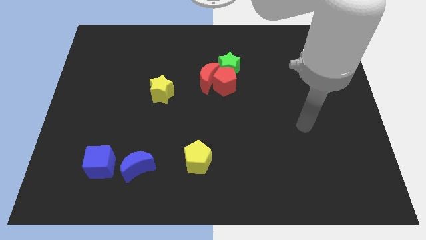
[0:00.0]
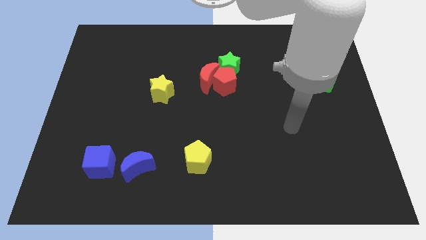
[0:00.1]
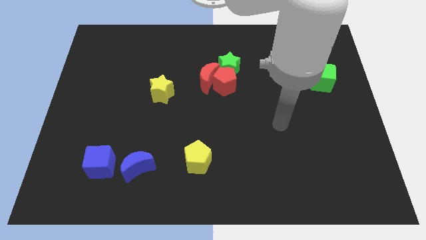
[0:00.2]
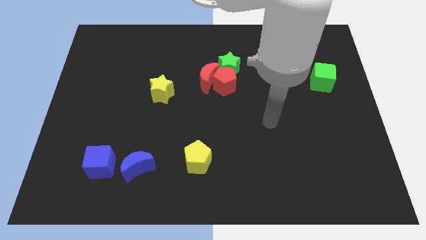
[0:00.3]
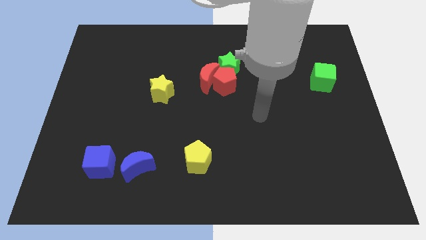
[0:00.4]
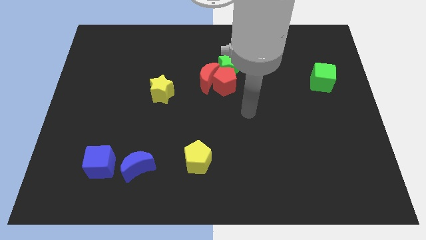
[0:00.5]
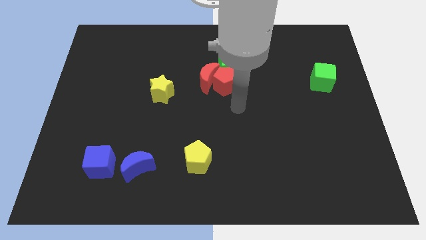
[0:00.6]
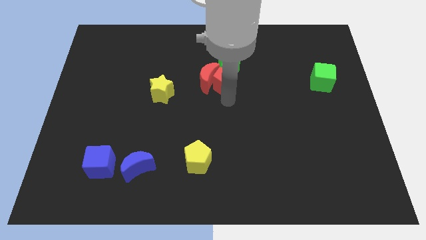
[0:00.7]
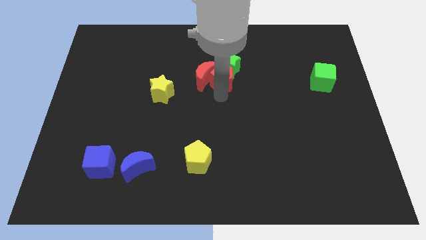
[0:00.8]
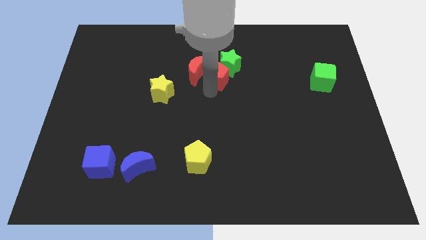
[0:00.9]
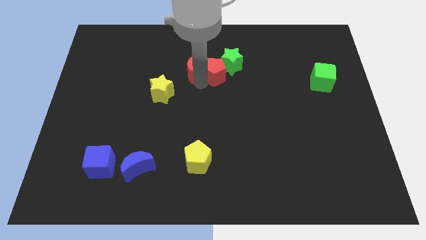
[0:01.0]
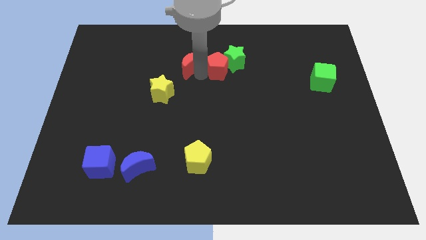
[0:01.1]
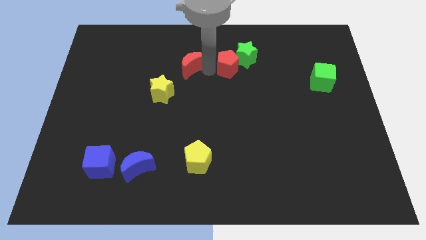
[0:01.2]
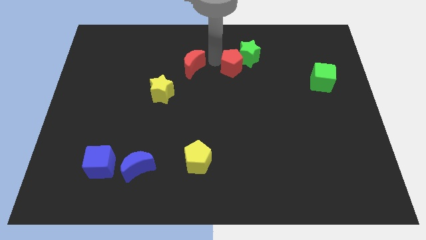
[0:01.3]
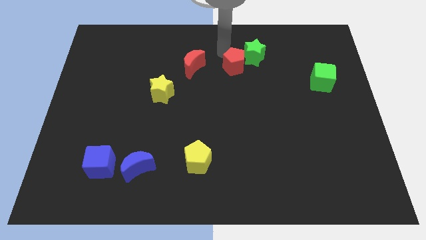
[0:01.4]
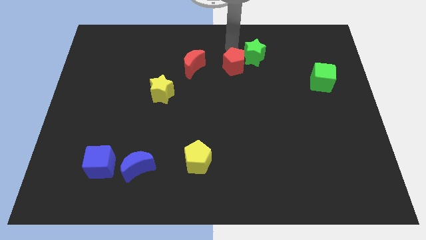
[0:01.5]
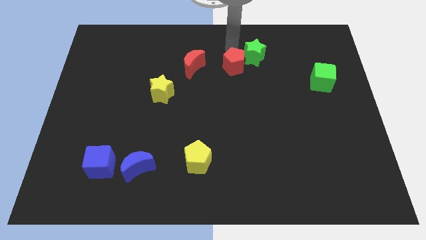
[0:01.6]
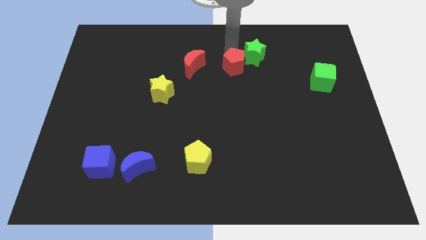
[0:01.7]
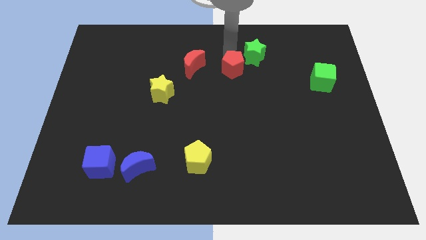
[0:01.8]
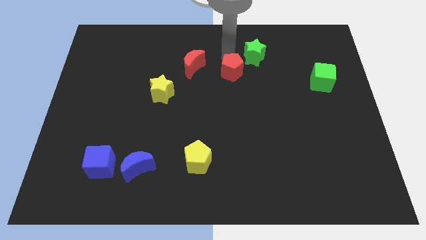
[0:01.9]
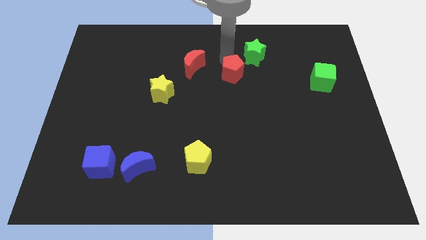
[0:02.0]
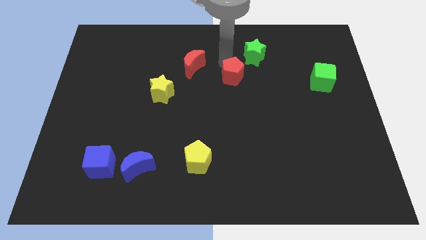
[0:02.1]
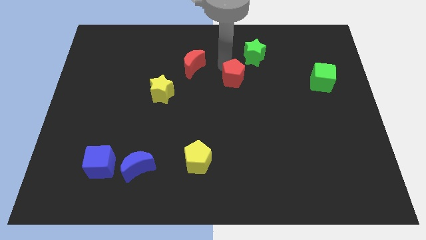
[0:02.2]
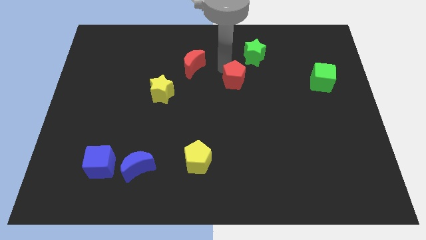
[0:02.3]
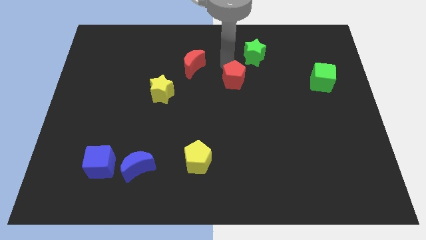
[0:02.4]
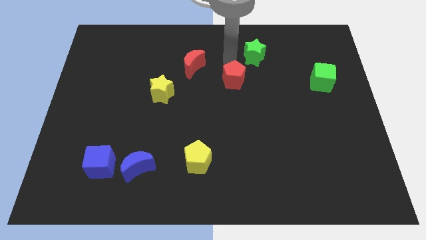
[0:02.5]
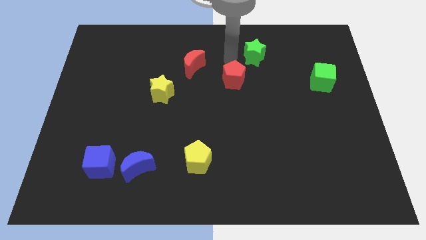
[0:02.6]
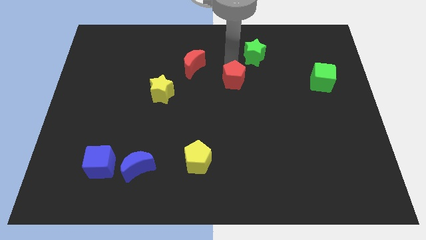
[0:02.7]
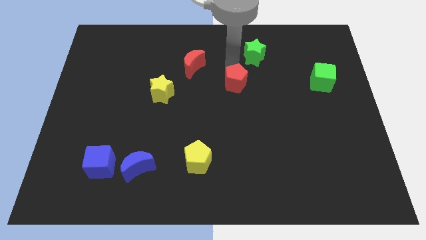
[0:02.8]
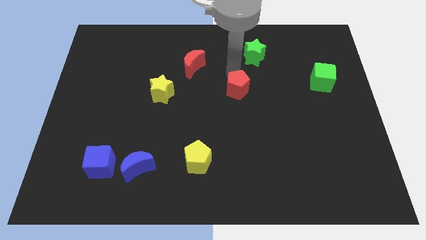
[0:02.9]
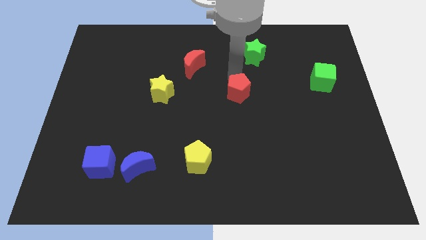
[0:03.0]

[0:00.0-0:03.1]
move the red pentagon away from the red moon and green star

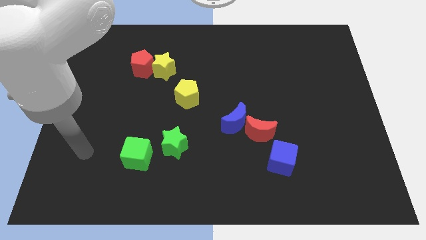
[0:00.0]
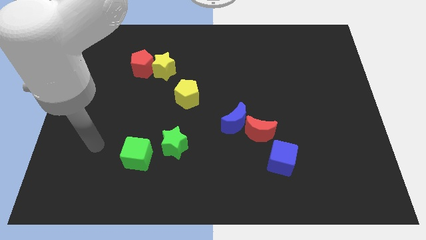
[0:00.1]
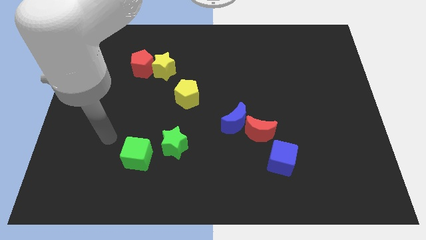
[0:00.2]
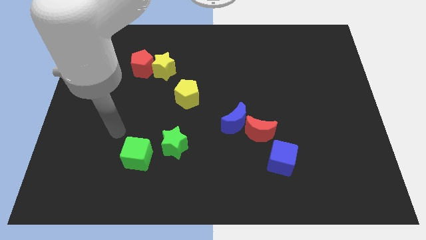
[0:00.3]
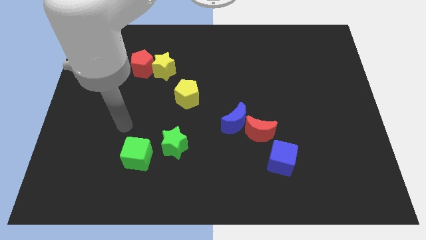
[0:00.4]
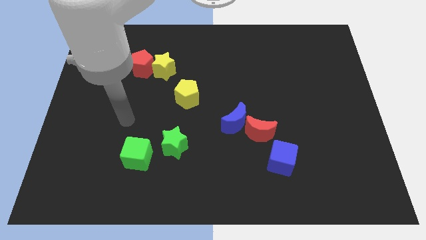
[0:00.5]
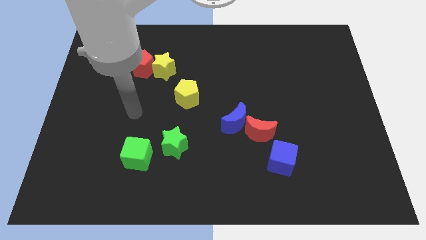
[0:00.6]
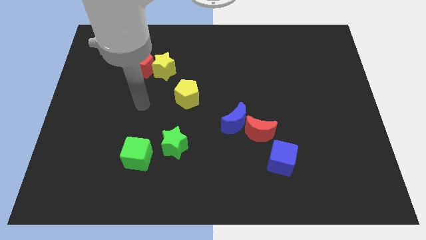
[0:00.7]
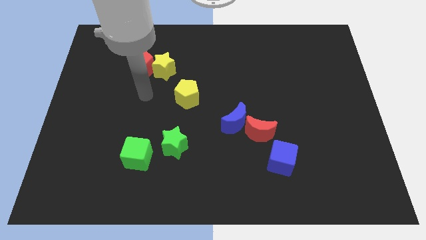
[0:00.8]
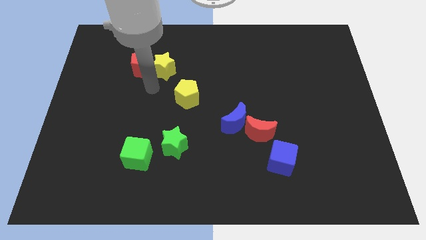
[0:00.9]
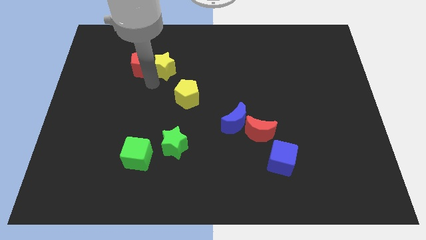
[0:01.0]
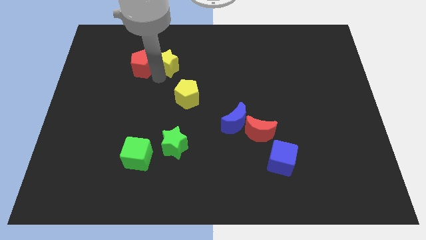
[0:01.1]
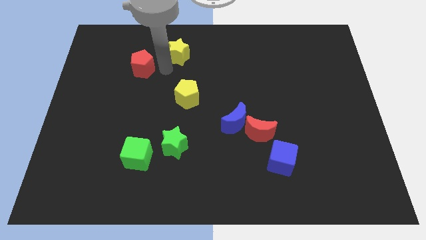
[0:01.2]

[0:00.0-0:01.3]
pull the red pentagon apart from the yellow star

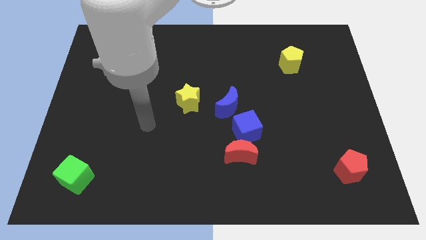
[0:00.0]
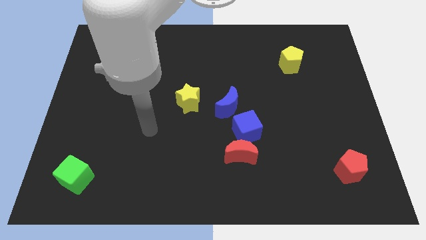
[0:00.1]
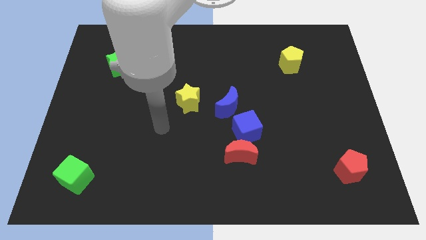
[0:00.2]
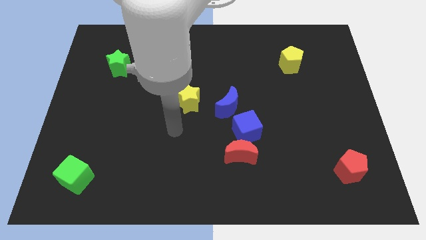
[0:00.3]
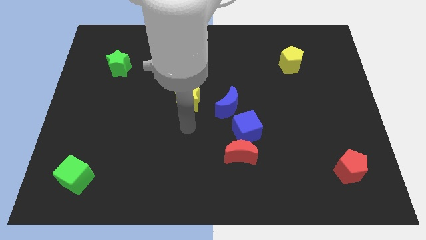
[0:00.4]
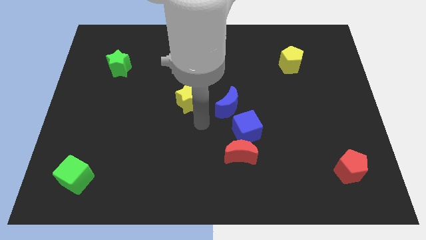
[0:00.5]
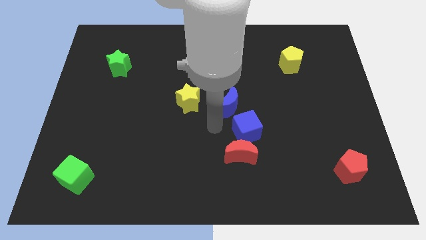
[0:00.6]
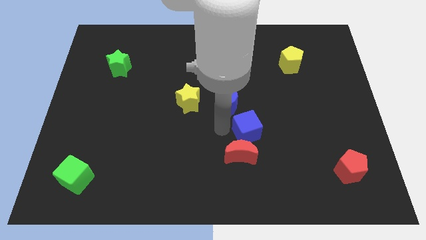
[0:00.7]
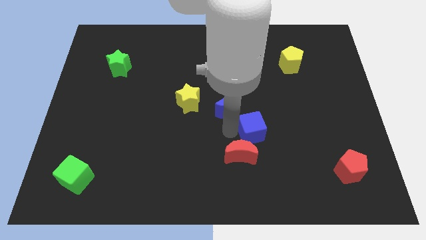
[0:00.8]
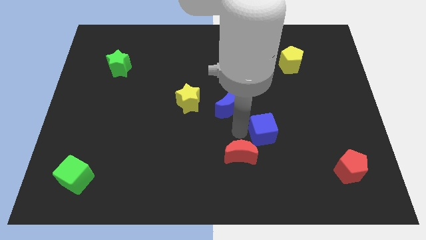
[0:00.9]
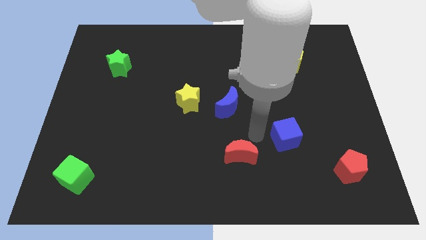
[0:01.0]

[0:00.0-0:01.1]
pull the red moon apart from the blue cube

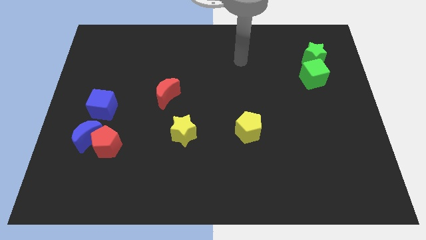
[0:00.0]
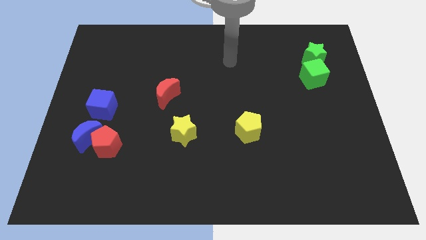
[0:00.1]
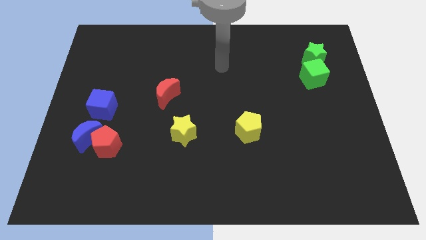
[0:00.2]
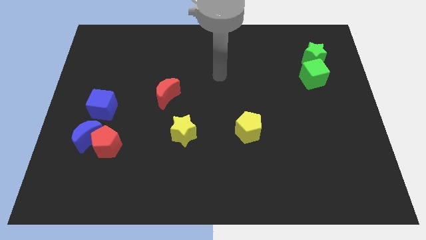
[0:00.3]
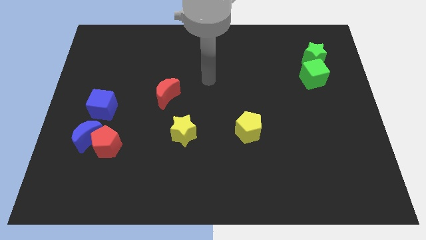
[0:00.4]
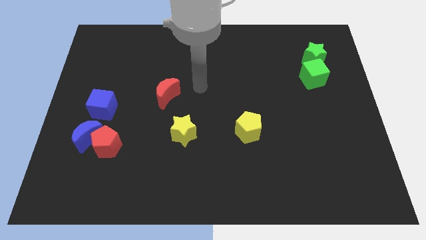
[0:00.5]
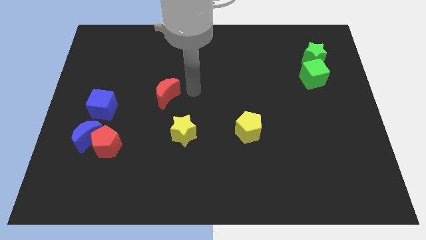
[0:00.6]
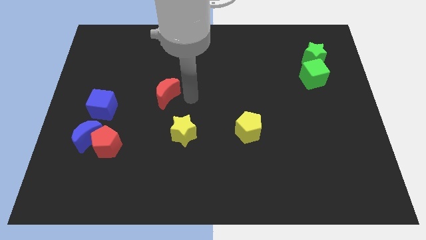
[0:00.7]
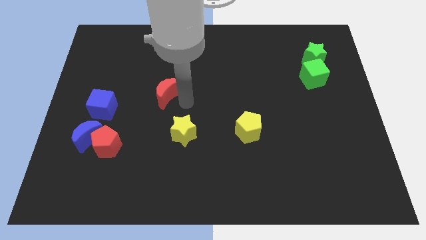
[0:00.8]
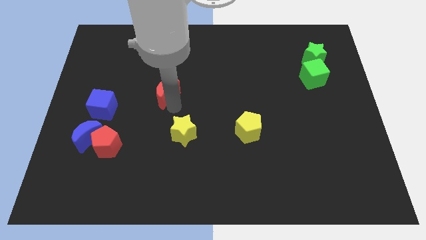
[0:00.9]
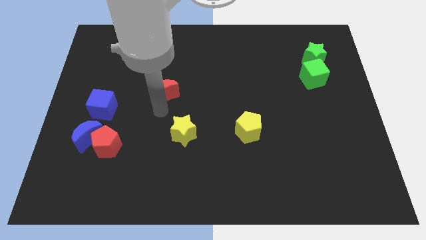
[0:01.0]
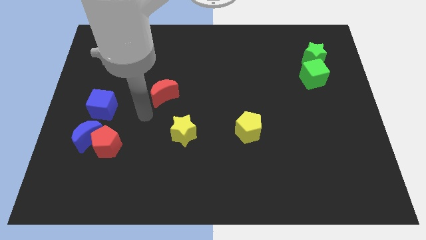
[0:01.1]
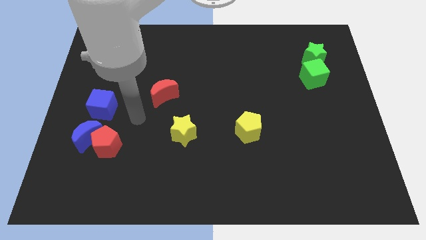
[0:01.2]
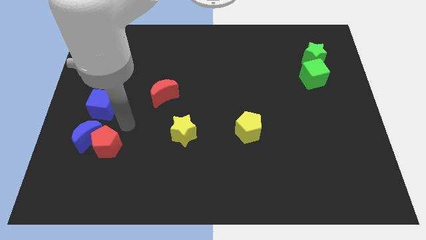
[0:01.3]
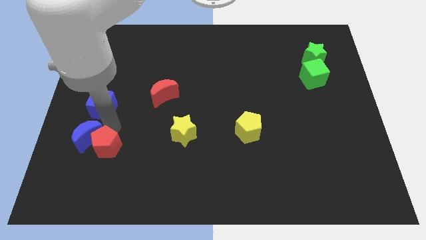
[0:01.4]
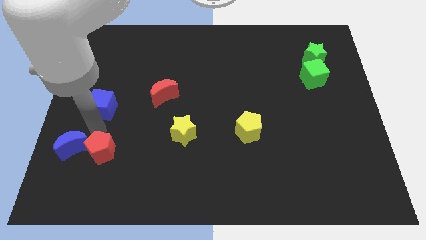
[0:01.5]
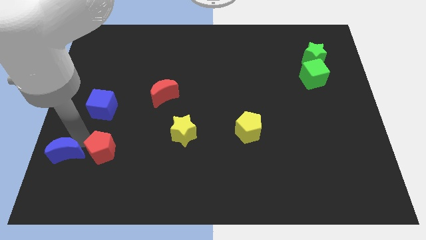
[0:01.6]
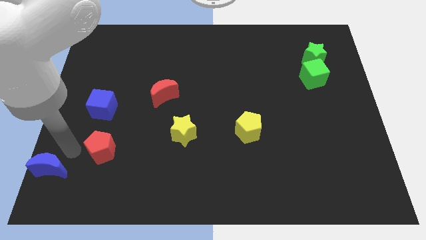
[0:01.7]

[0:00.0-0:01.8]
pull the red pentagon apart from the blue moon

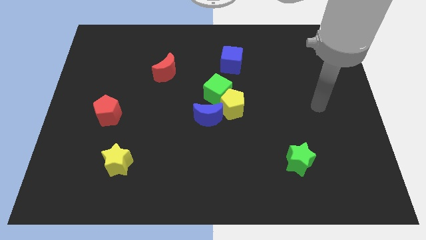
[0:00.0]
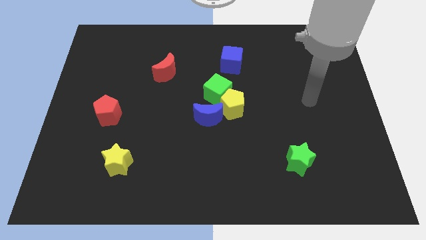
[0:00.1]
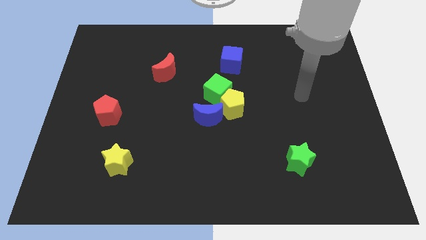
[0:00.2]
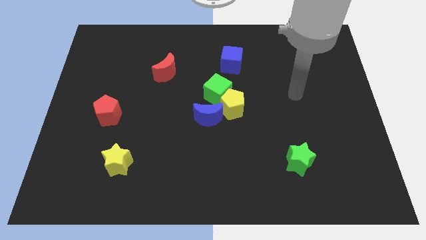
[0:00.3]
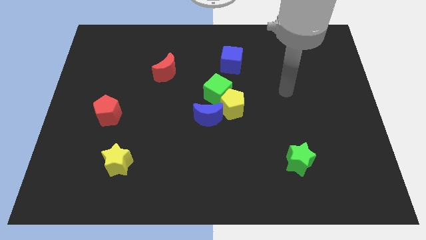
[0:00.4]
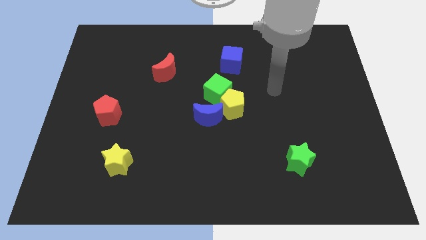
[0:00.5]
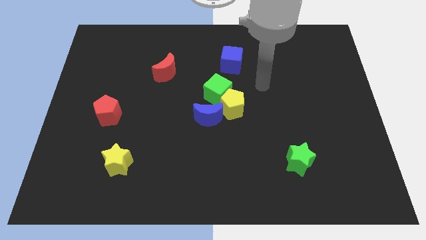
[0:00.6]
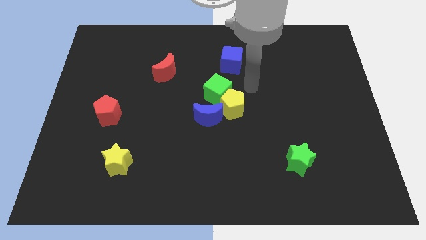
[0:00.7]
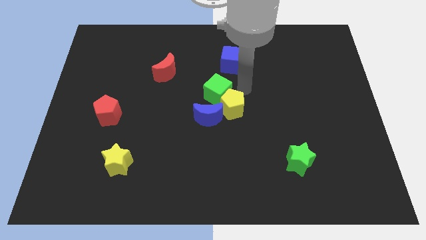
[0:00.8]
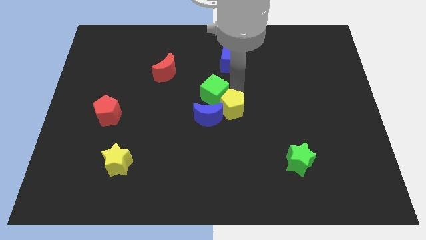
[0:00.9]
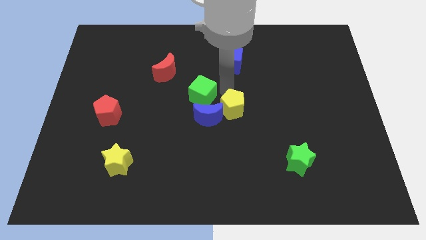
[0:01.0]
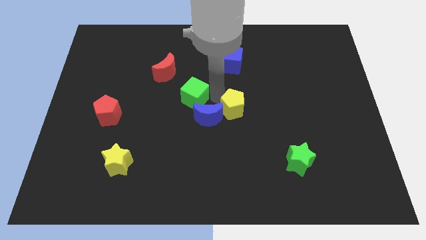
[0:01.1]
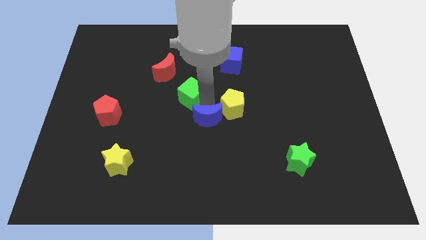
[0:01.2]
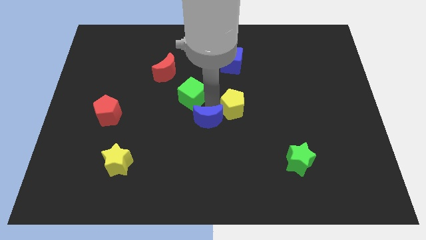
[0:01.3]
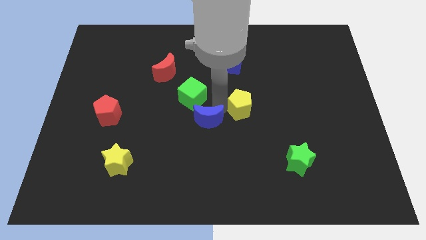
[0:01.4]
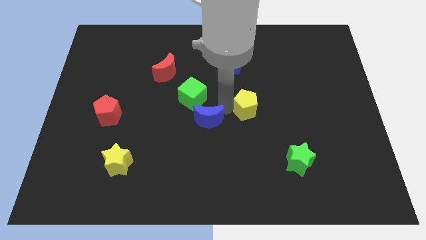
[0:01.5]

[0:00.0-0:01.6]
separate the yellow pentagon from the green cube and blue moon

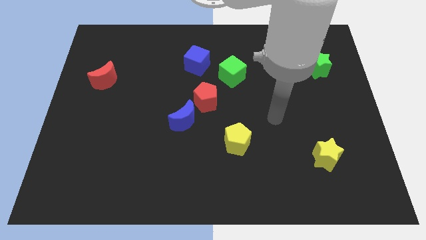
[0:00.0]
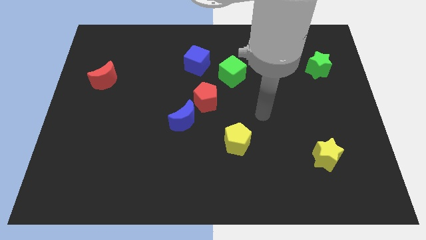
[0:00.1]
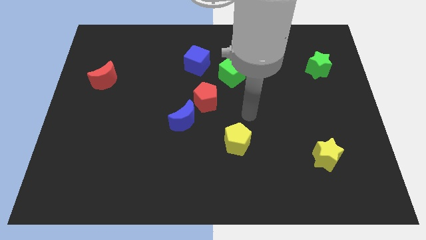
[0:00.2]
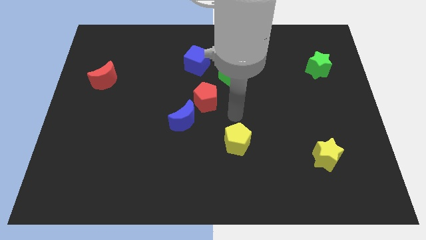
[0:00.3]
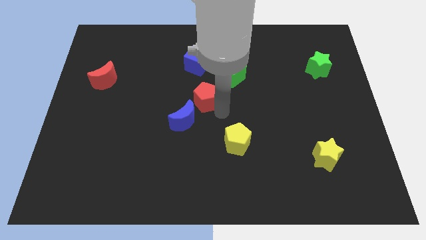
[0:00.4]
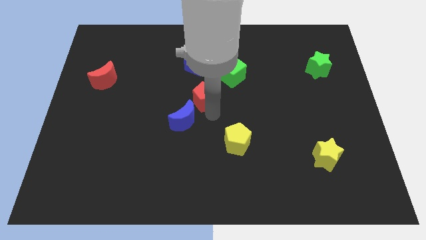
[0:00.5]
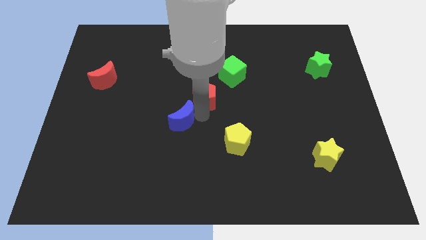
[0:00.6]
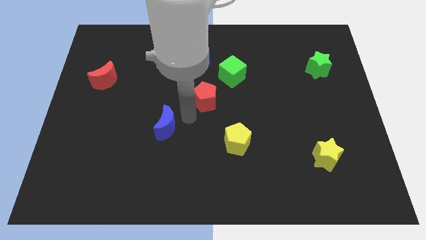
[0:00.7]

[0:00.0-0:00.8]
move the red pentagon away from the blue moon
